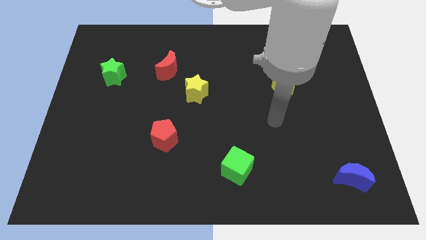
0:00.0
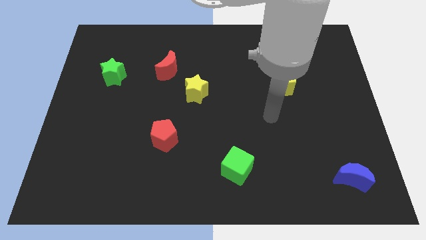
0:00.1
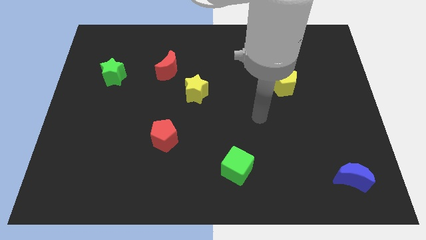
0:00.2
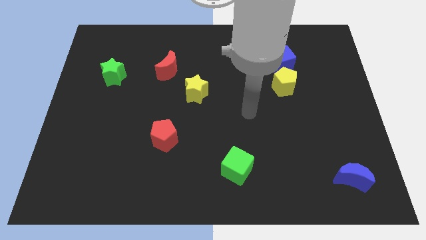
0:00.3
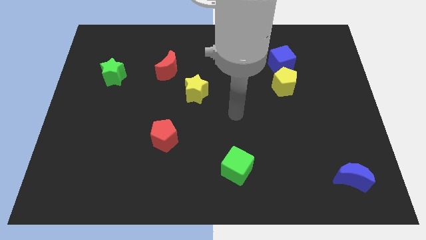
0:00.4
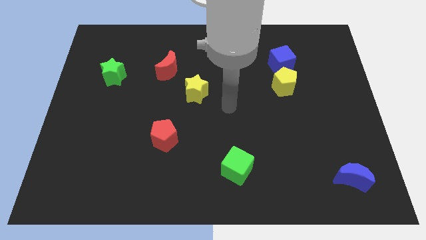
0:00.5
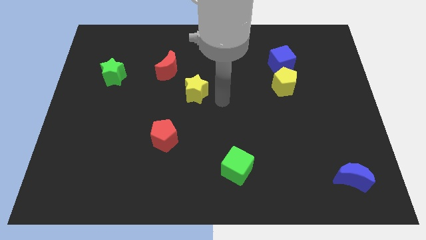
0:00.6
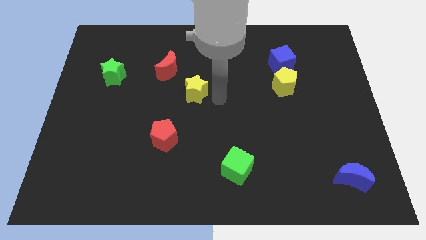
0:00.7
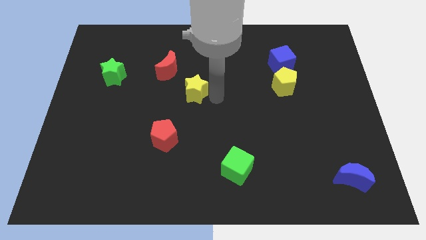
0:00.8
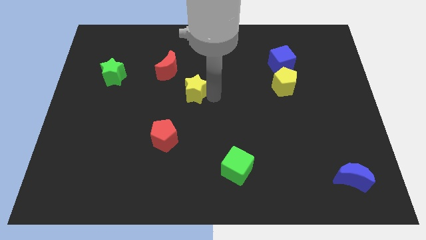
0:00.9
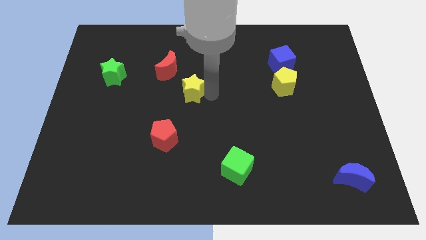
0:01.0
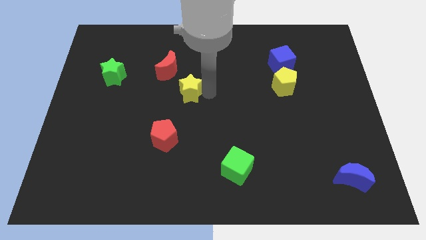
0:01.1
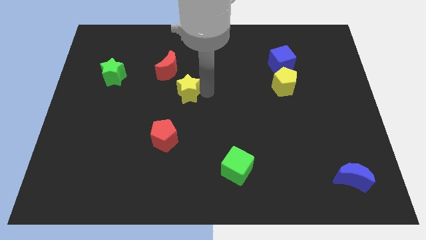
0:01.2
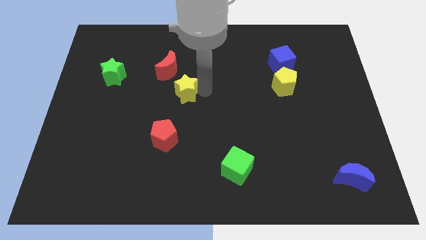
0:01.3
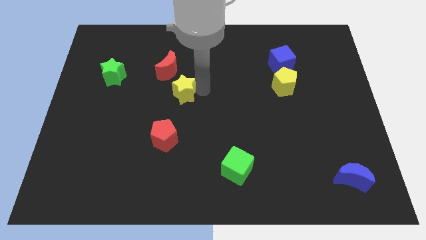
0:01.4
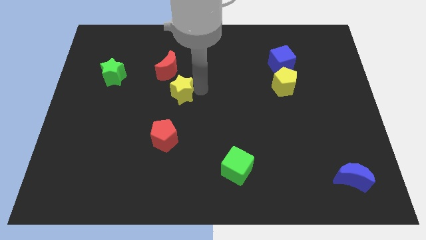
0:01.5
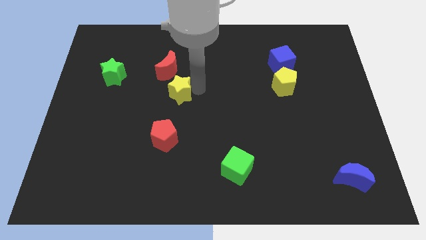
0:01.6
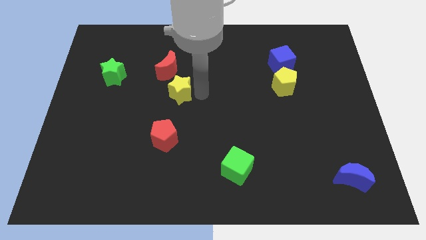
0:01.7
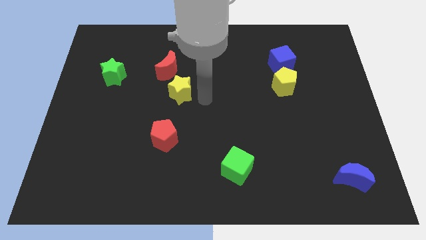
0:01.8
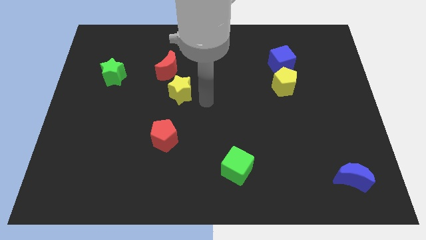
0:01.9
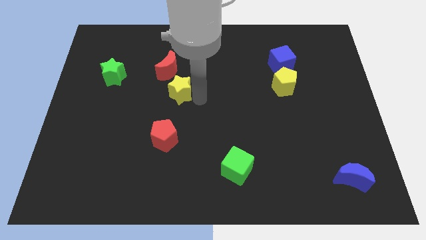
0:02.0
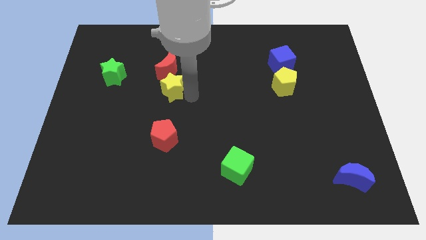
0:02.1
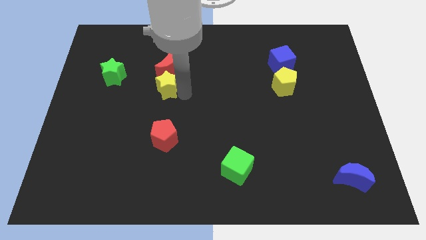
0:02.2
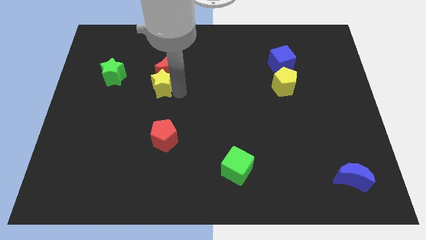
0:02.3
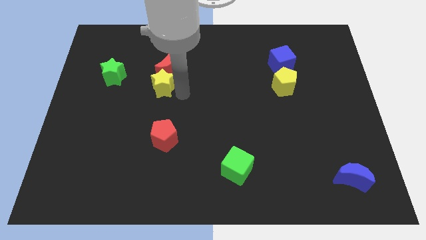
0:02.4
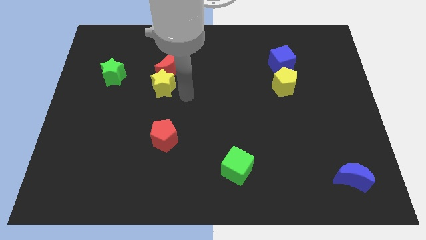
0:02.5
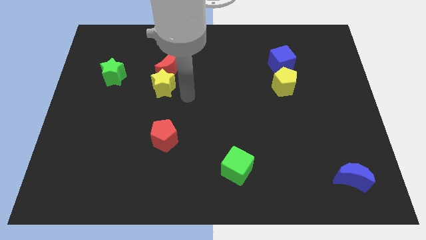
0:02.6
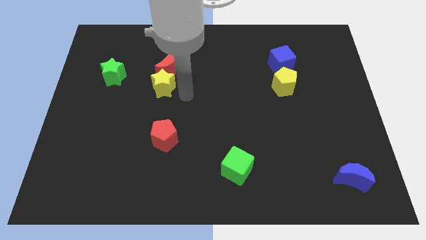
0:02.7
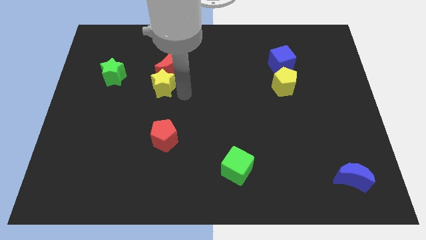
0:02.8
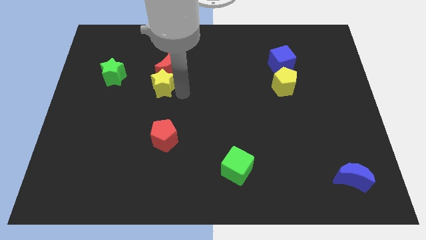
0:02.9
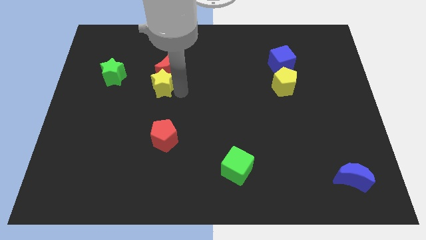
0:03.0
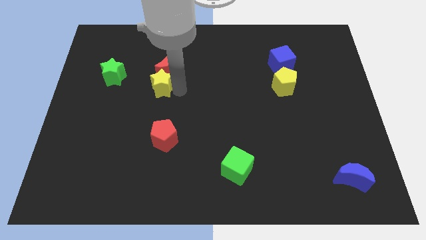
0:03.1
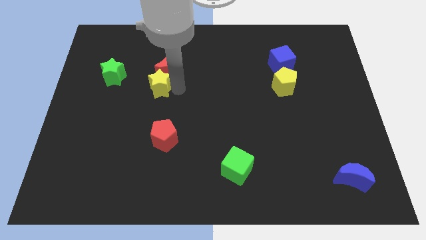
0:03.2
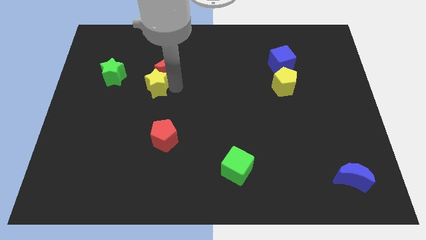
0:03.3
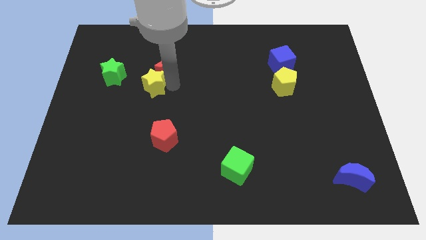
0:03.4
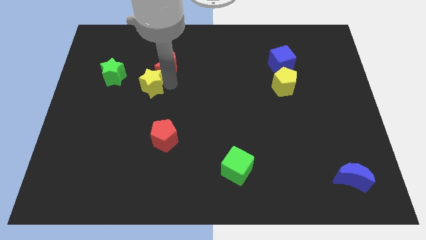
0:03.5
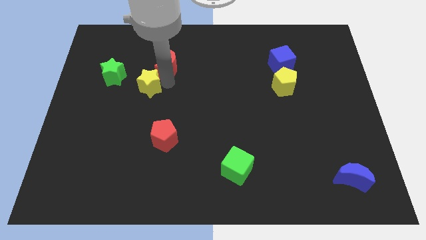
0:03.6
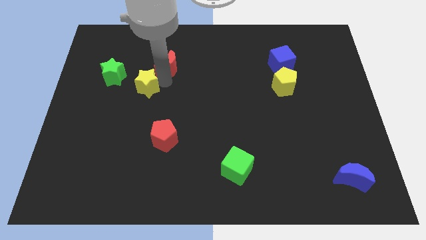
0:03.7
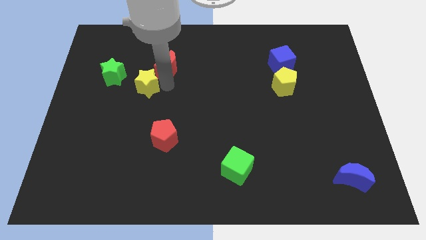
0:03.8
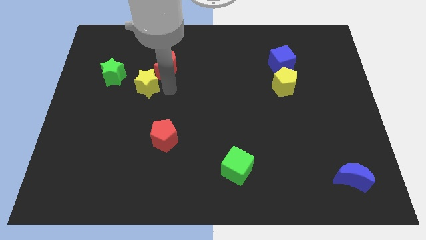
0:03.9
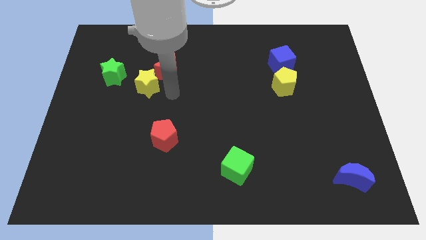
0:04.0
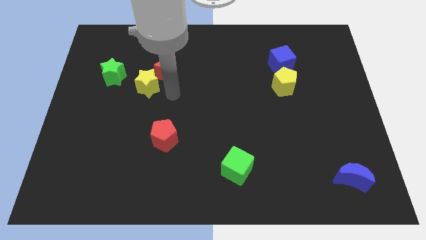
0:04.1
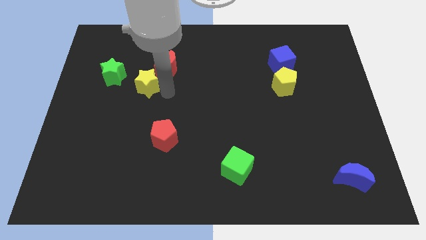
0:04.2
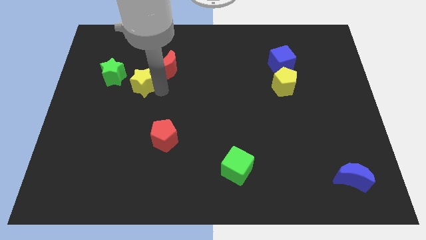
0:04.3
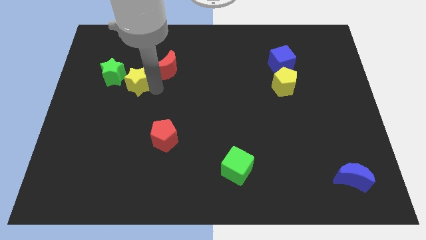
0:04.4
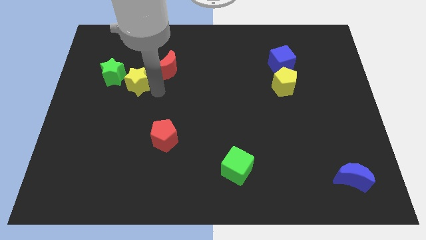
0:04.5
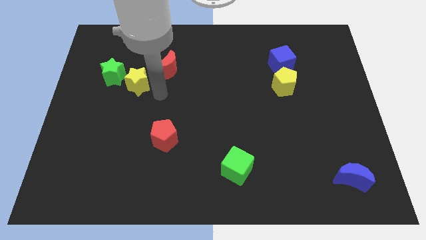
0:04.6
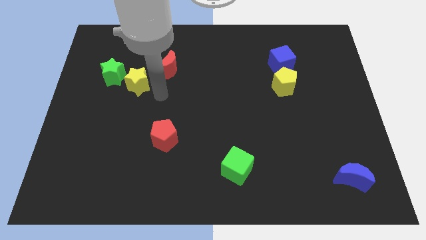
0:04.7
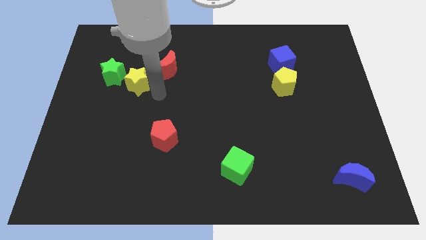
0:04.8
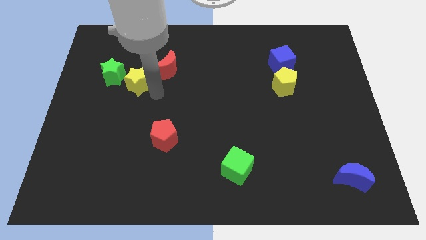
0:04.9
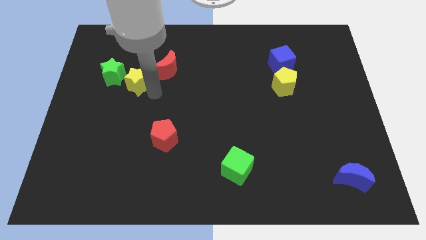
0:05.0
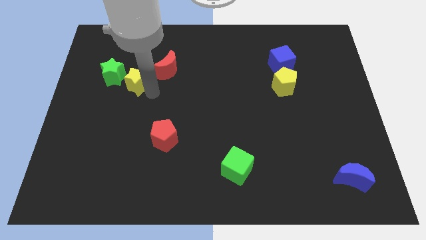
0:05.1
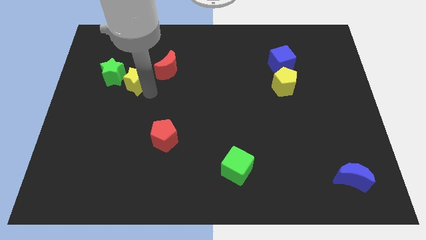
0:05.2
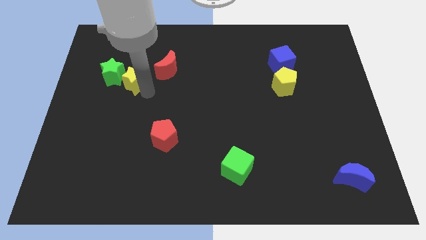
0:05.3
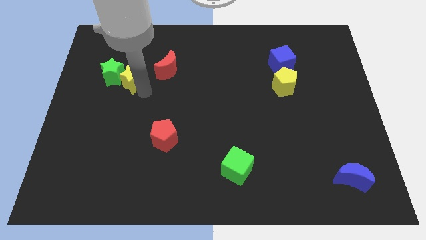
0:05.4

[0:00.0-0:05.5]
move the yellow star to the green star

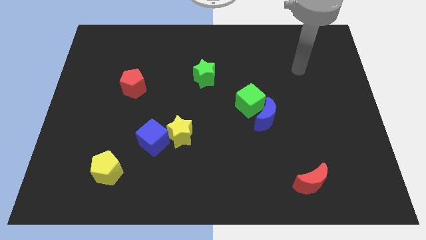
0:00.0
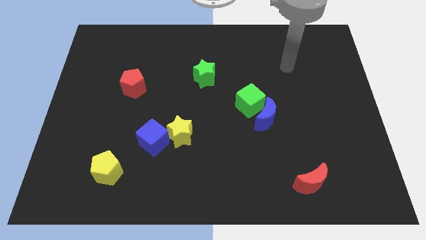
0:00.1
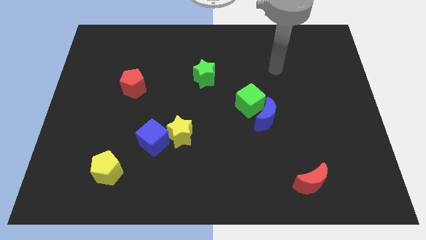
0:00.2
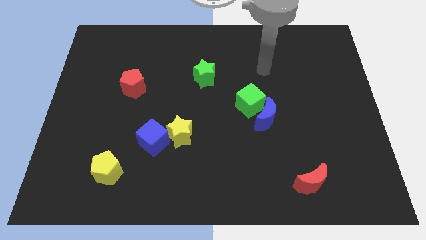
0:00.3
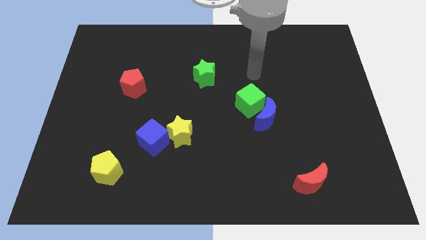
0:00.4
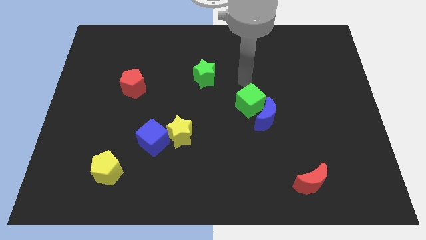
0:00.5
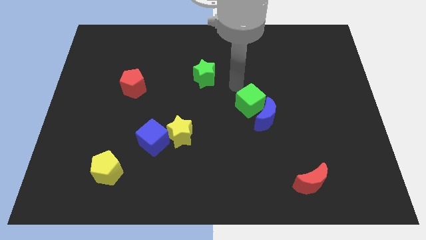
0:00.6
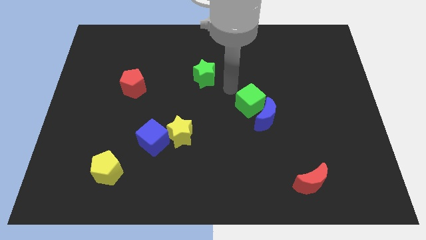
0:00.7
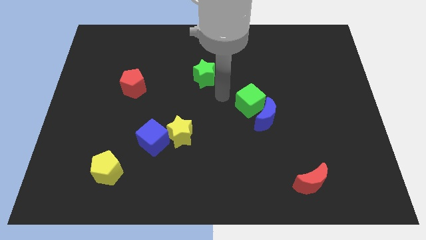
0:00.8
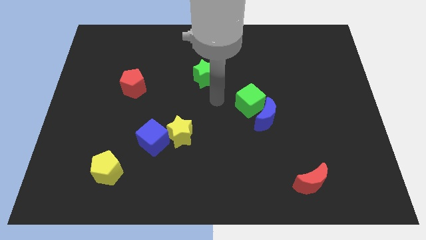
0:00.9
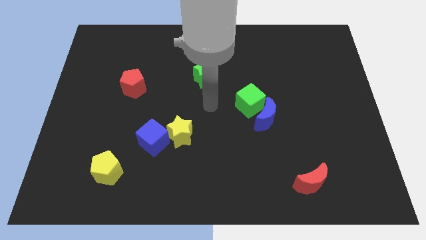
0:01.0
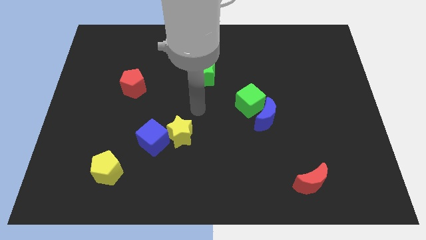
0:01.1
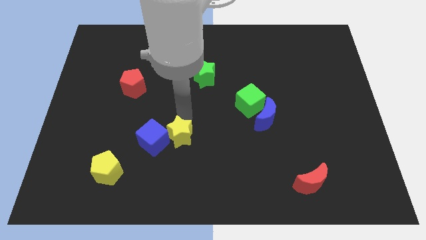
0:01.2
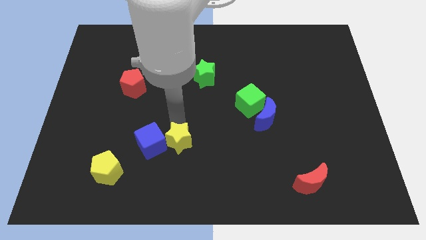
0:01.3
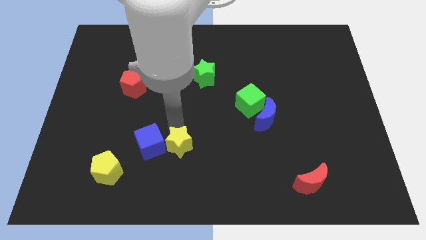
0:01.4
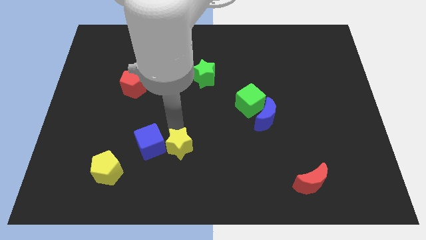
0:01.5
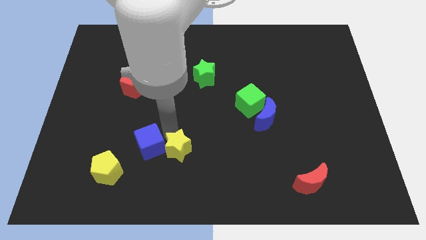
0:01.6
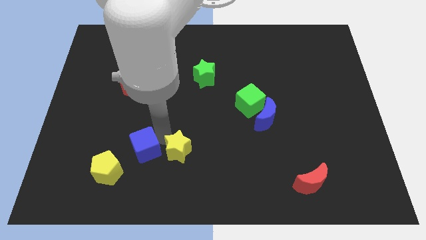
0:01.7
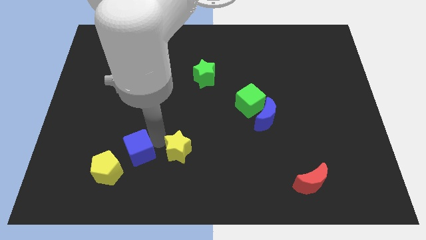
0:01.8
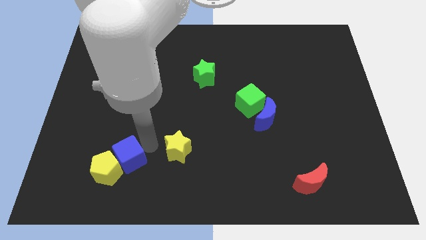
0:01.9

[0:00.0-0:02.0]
slide the blue cube towards the yellow pentagon

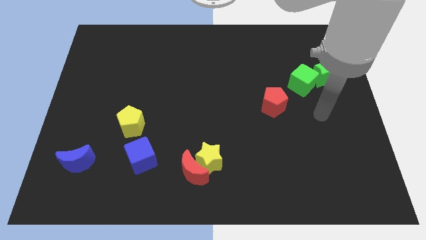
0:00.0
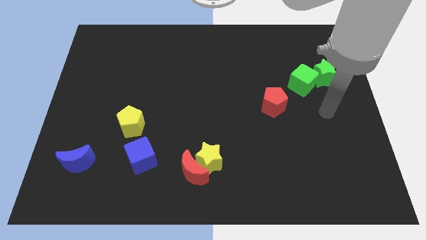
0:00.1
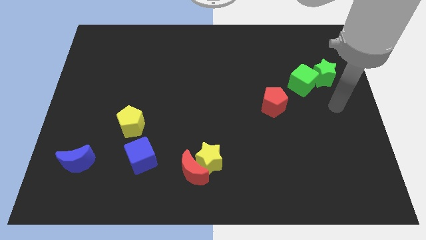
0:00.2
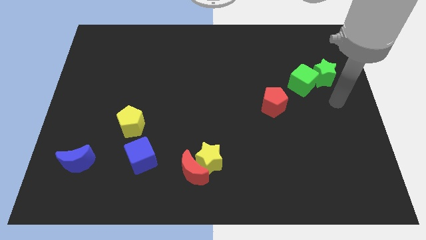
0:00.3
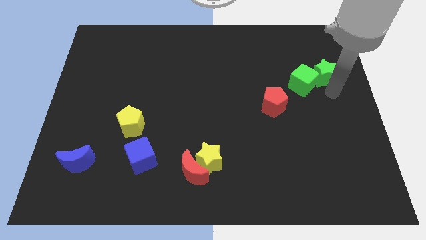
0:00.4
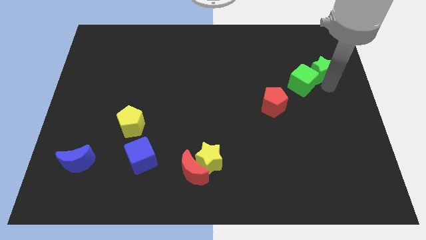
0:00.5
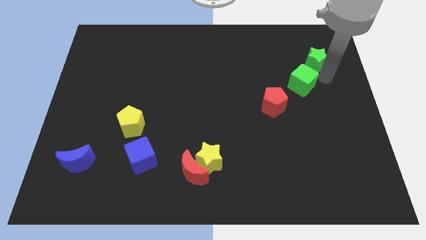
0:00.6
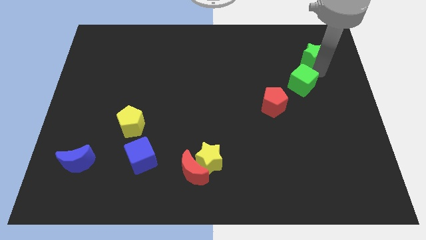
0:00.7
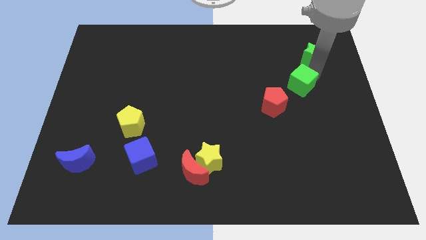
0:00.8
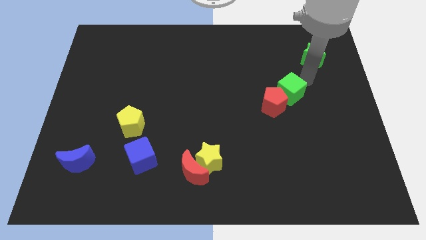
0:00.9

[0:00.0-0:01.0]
slide the green cube towards the red pentagon
